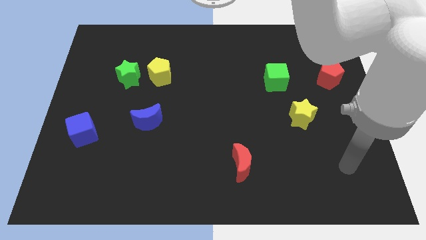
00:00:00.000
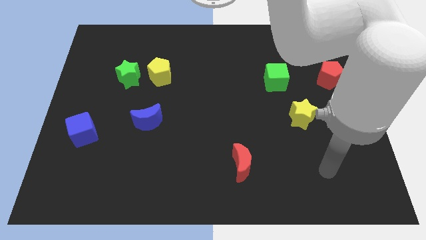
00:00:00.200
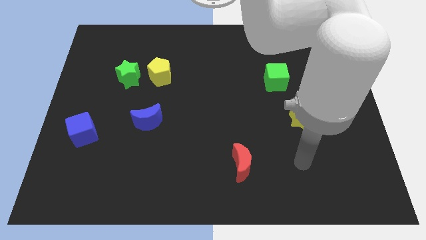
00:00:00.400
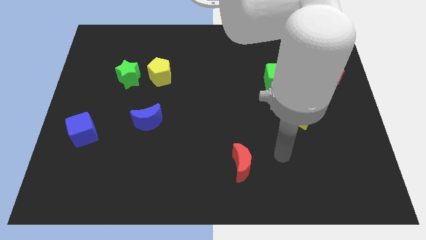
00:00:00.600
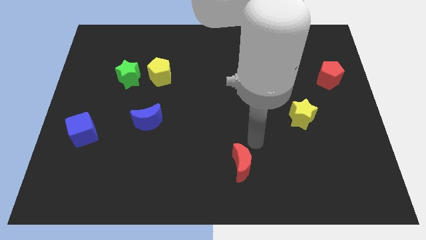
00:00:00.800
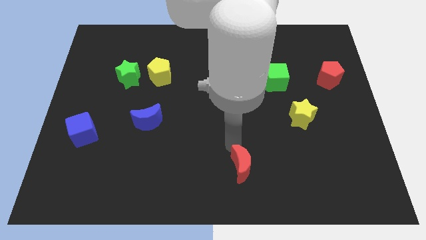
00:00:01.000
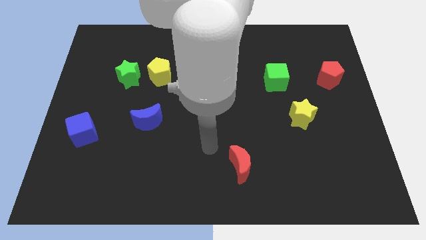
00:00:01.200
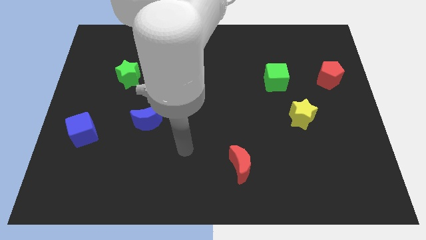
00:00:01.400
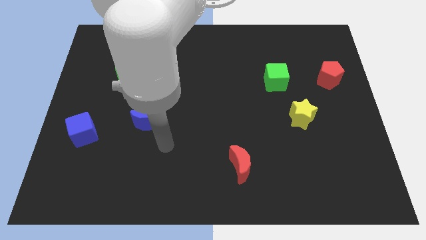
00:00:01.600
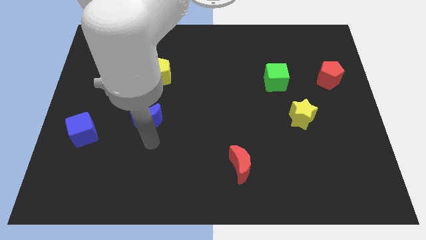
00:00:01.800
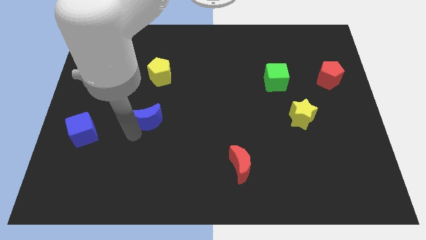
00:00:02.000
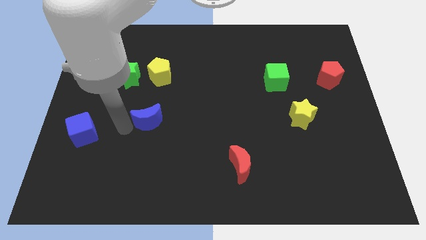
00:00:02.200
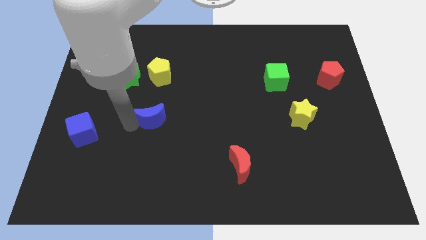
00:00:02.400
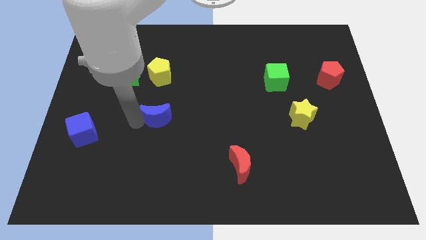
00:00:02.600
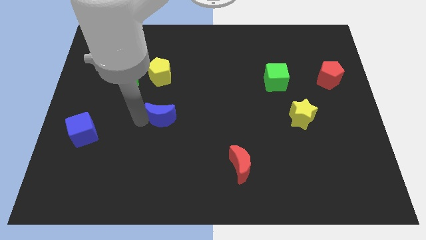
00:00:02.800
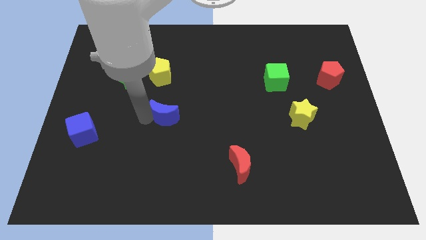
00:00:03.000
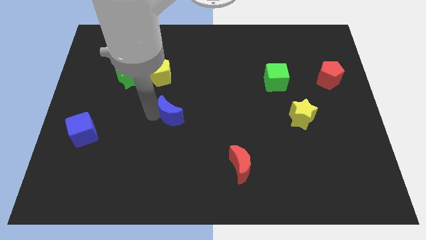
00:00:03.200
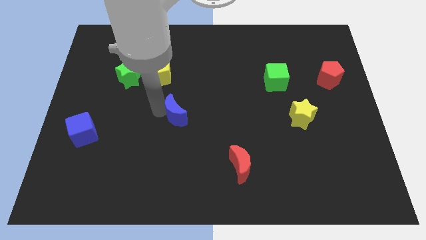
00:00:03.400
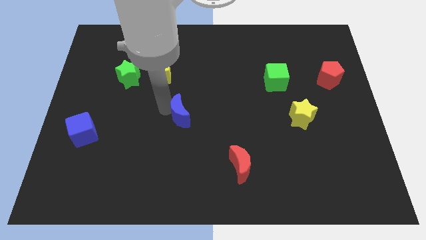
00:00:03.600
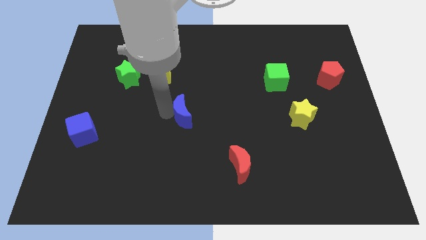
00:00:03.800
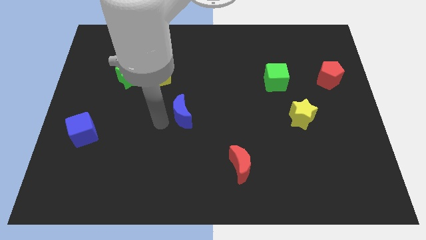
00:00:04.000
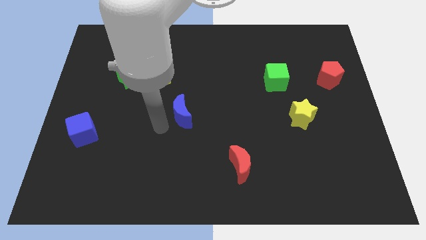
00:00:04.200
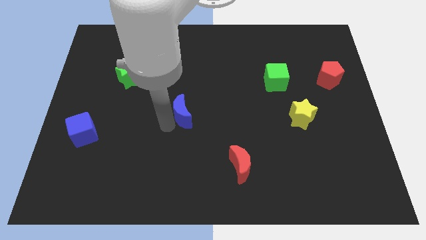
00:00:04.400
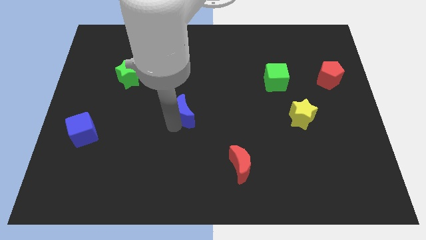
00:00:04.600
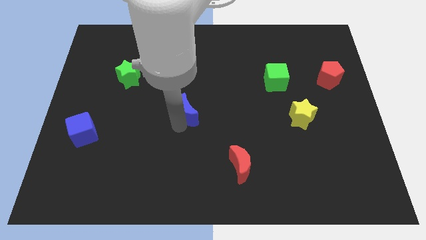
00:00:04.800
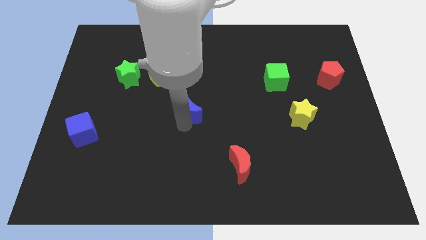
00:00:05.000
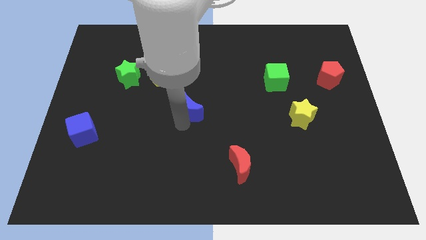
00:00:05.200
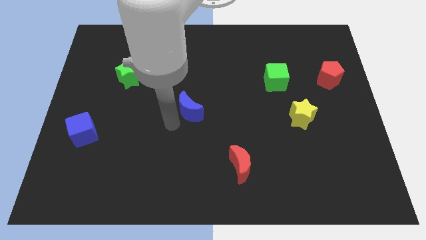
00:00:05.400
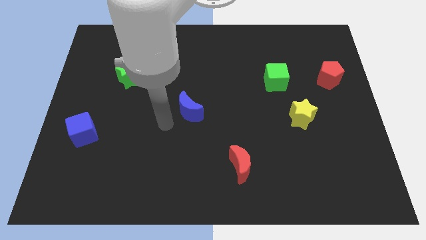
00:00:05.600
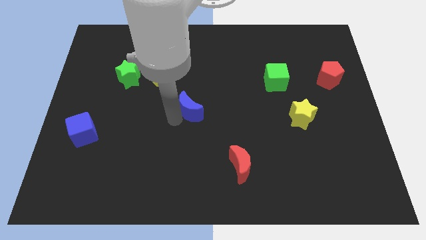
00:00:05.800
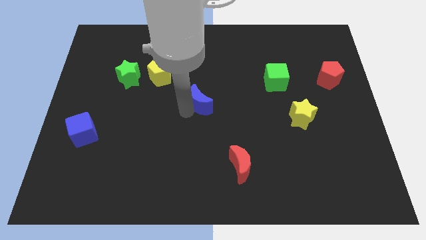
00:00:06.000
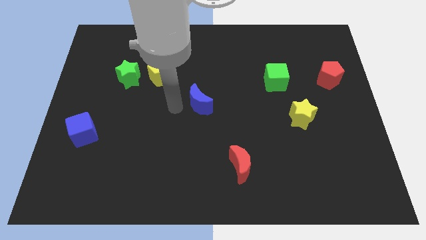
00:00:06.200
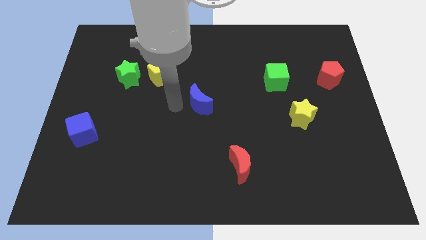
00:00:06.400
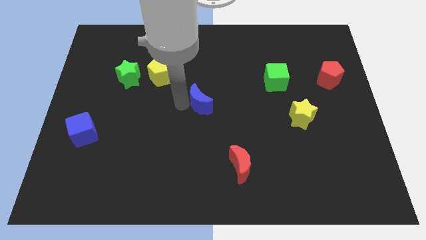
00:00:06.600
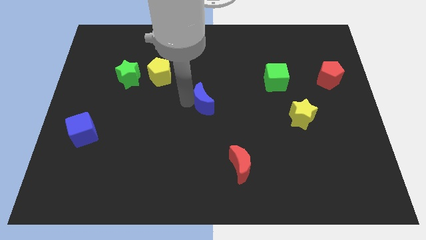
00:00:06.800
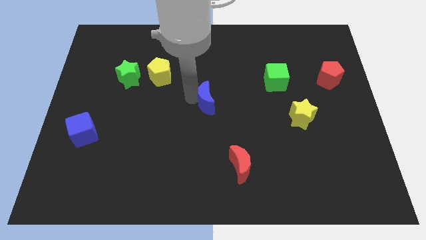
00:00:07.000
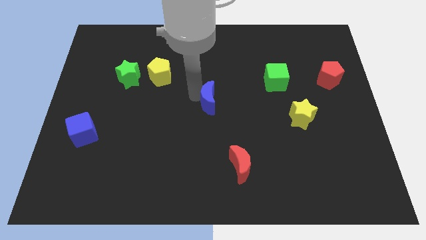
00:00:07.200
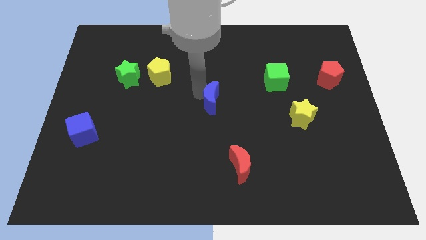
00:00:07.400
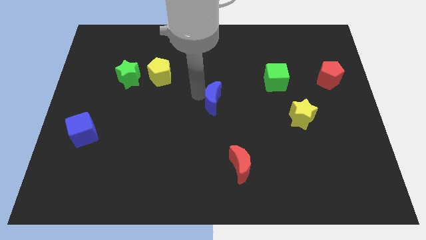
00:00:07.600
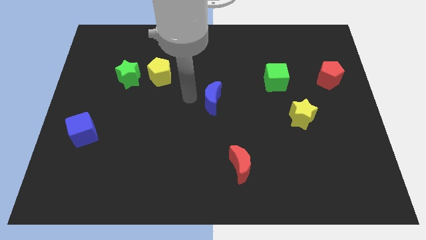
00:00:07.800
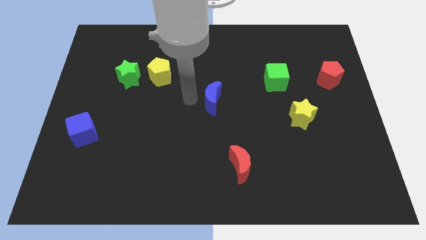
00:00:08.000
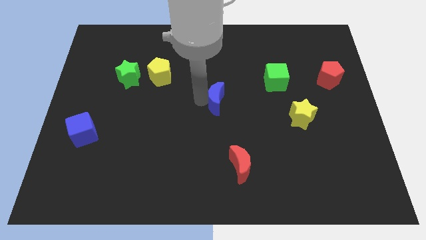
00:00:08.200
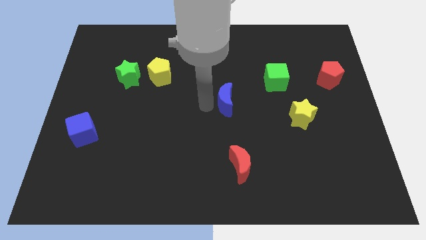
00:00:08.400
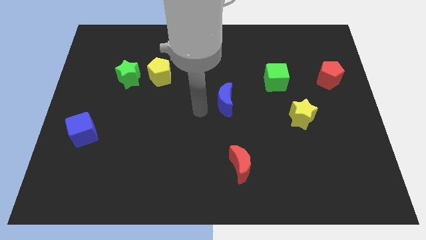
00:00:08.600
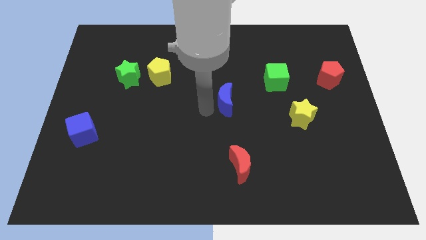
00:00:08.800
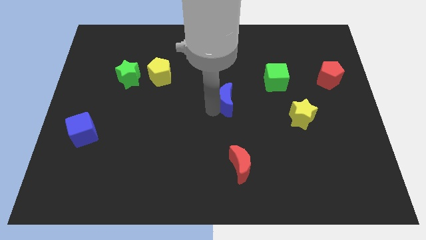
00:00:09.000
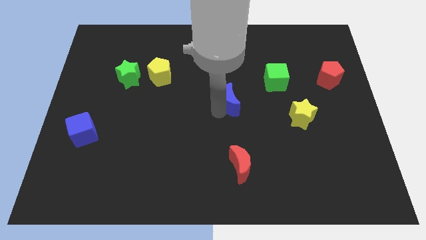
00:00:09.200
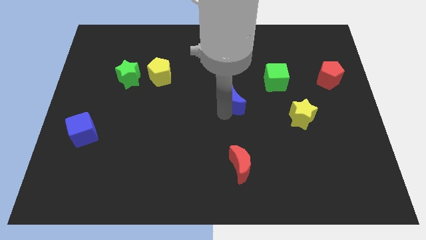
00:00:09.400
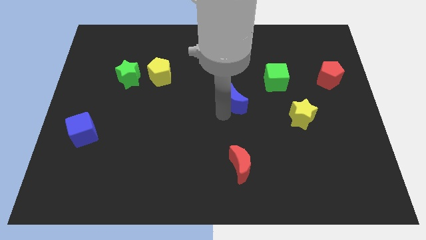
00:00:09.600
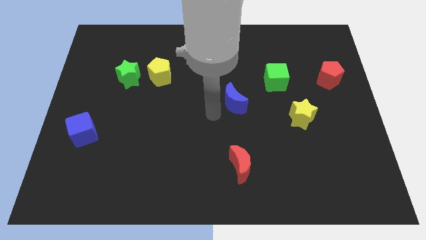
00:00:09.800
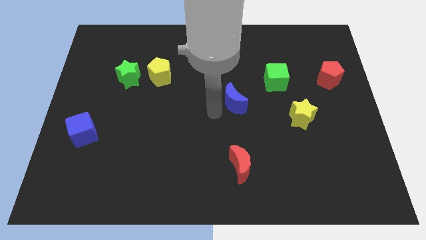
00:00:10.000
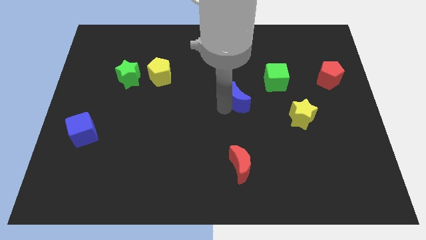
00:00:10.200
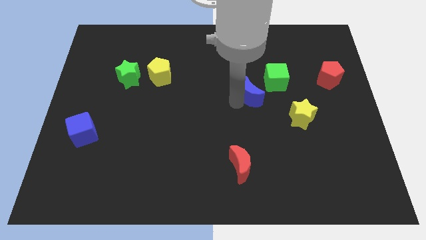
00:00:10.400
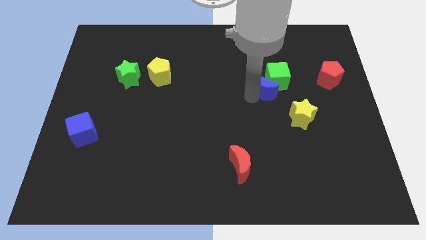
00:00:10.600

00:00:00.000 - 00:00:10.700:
push the blue moon close to the green cube

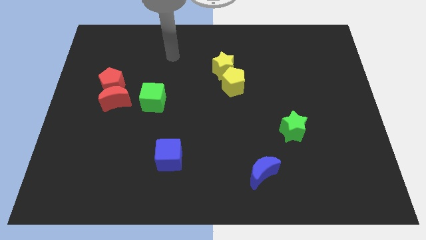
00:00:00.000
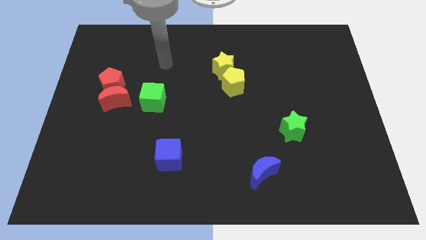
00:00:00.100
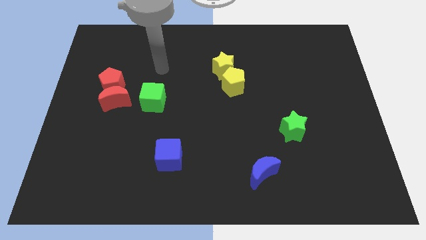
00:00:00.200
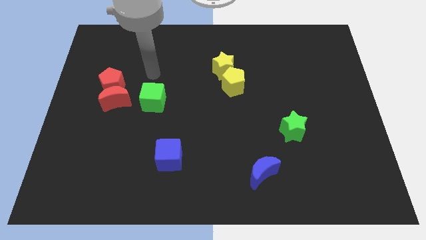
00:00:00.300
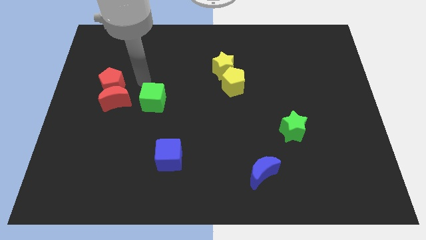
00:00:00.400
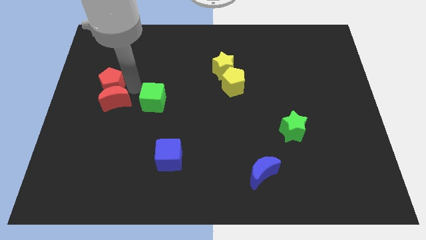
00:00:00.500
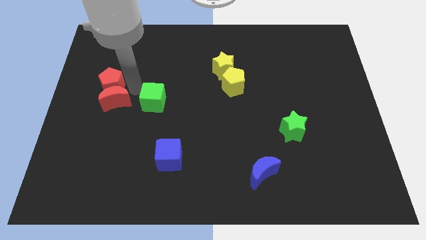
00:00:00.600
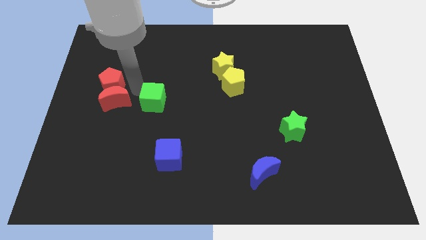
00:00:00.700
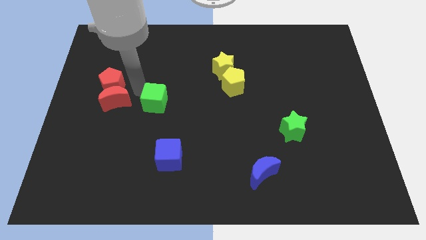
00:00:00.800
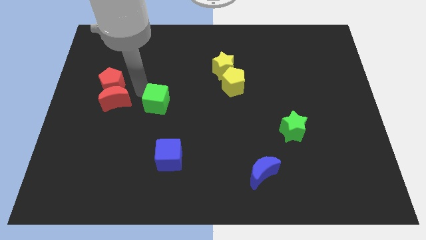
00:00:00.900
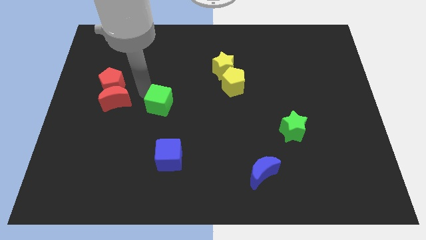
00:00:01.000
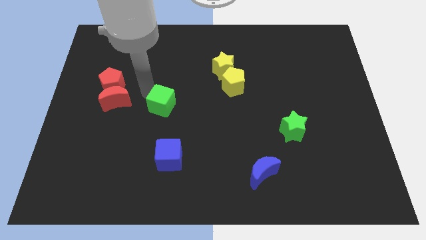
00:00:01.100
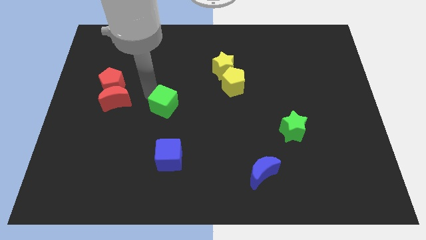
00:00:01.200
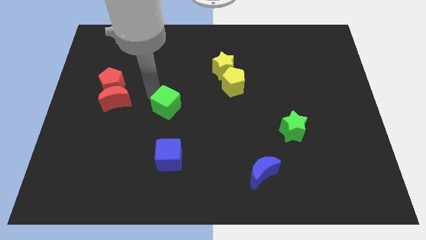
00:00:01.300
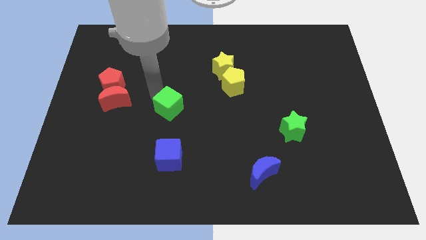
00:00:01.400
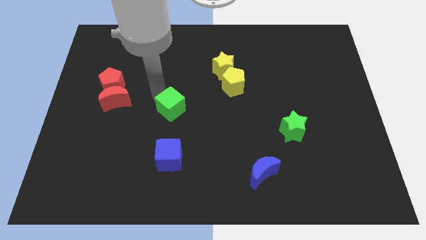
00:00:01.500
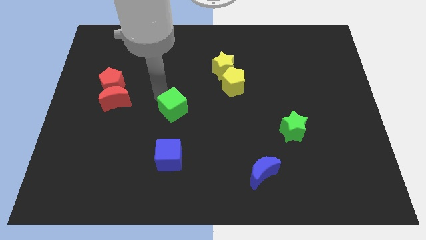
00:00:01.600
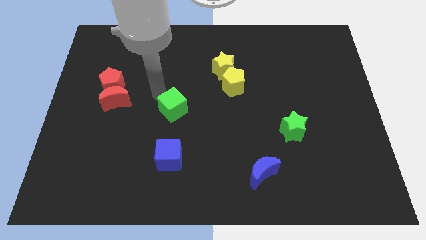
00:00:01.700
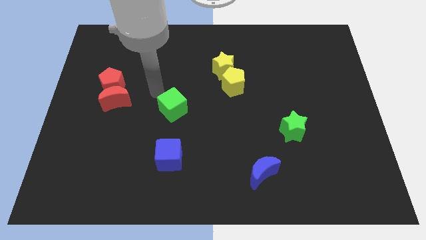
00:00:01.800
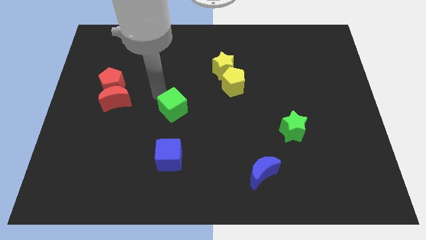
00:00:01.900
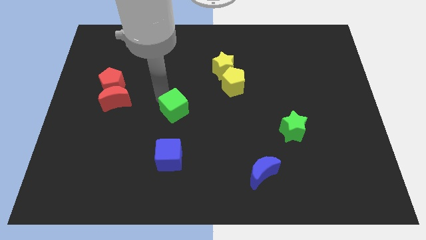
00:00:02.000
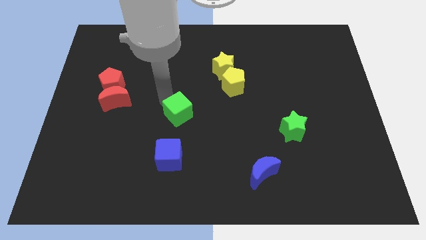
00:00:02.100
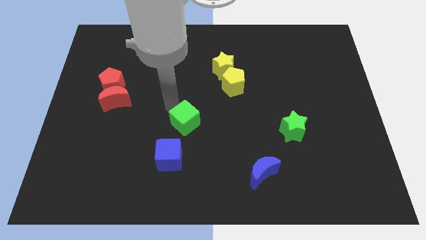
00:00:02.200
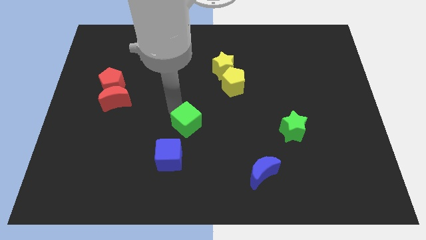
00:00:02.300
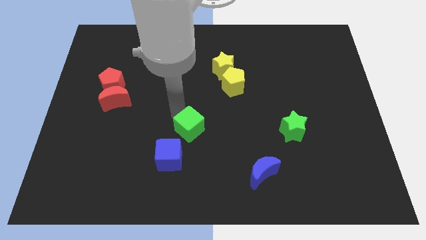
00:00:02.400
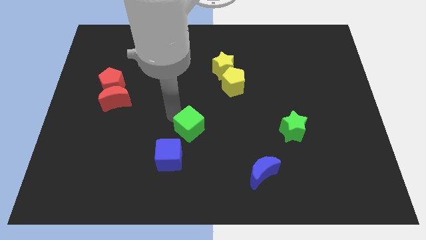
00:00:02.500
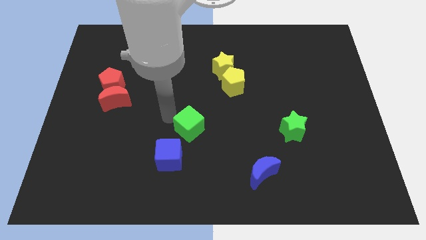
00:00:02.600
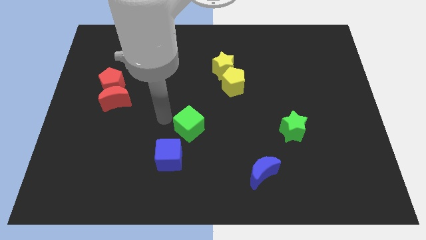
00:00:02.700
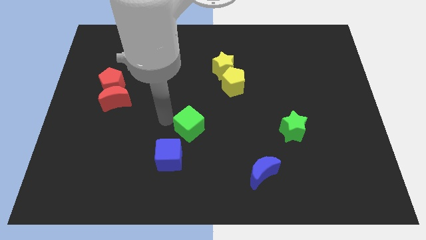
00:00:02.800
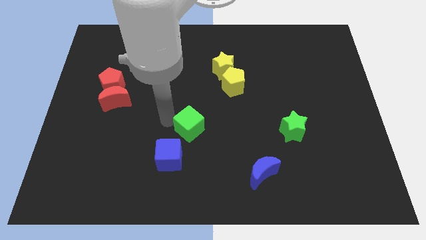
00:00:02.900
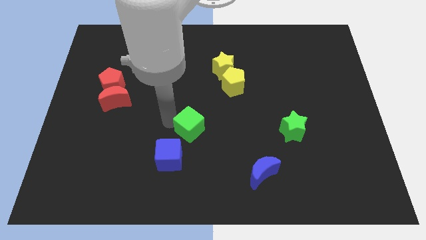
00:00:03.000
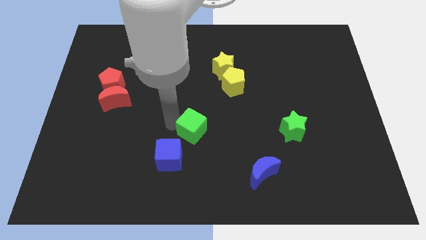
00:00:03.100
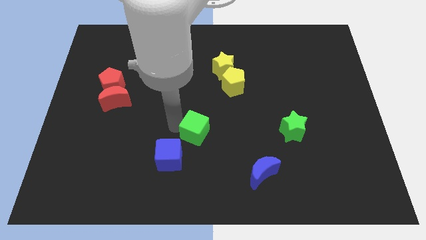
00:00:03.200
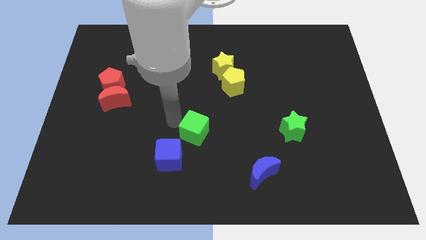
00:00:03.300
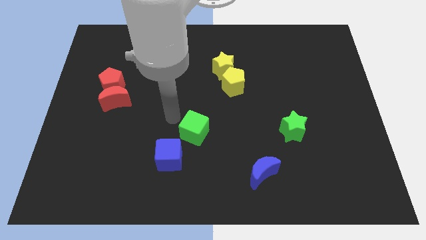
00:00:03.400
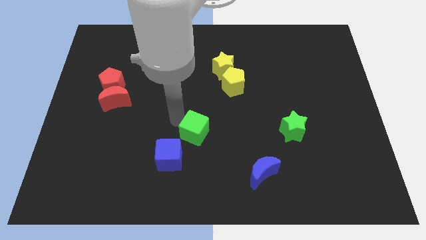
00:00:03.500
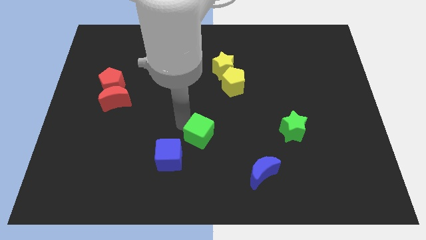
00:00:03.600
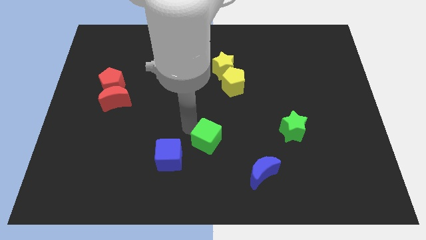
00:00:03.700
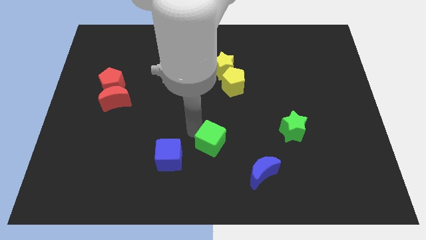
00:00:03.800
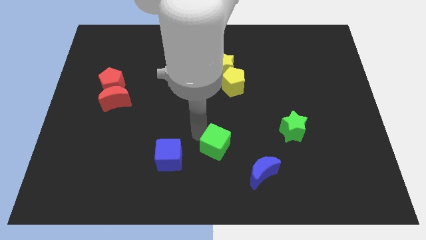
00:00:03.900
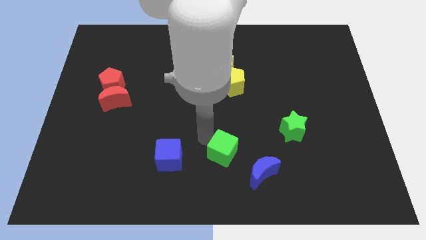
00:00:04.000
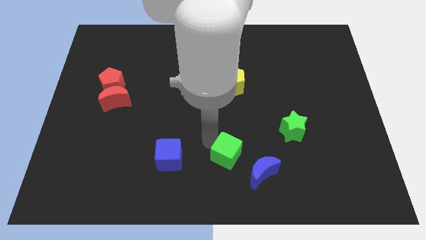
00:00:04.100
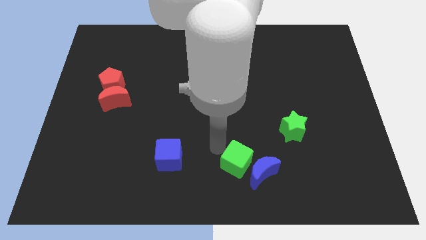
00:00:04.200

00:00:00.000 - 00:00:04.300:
move the green cube towards the blue moon
